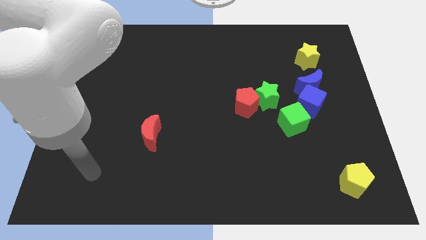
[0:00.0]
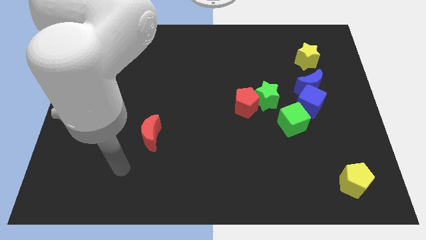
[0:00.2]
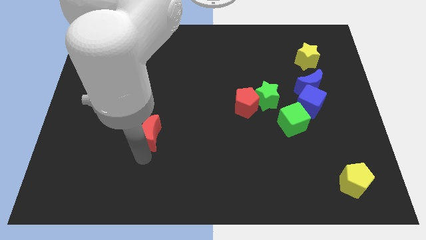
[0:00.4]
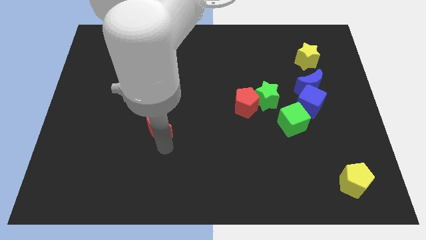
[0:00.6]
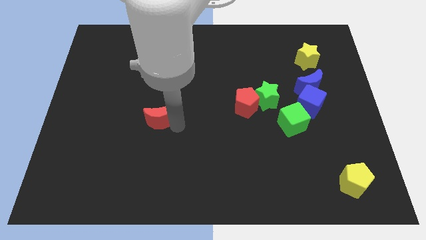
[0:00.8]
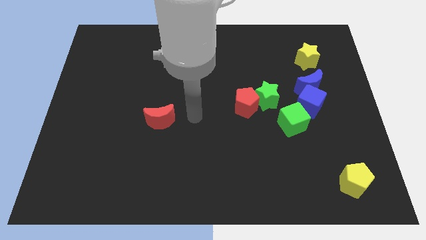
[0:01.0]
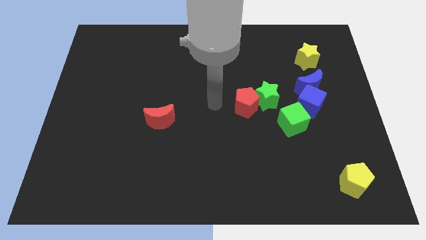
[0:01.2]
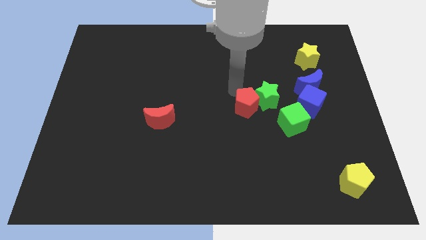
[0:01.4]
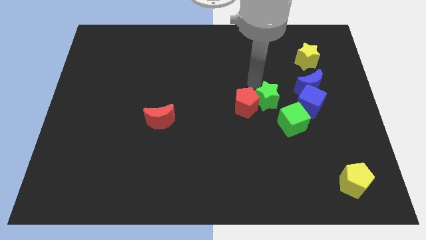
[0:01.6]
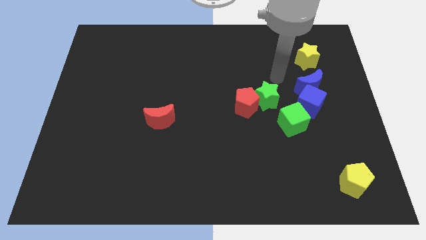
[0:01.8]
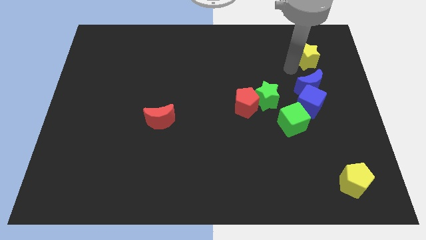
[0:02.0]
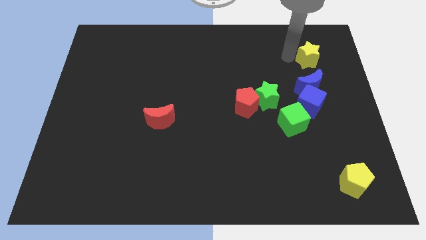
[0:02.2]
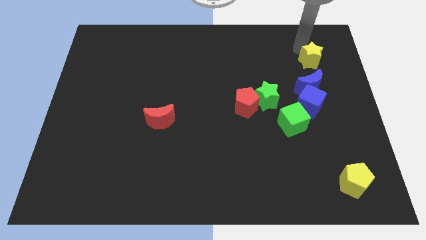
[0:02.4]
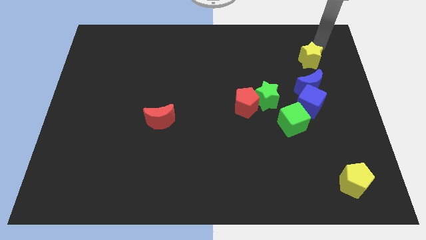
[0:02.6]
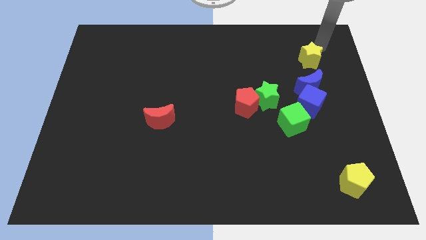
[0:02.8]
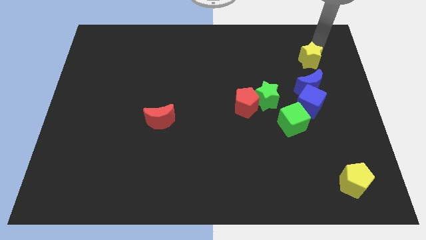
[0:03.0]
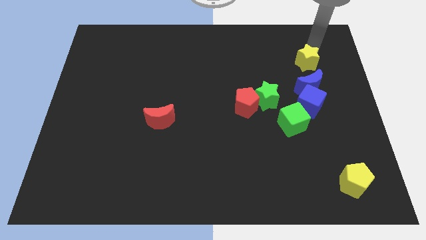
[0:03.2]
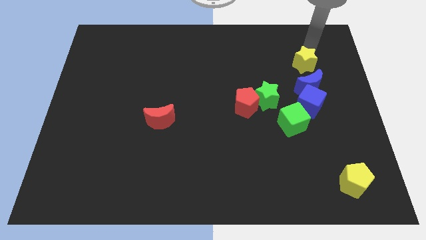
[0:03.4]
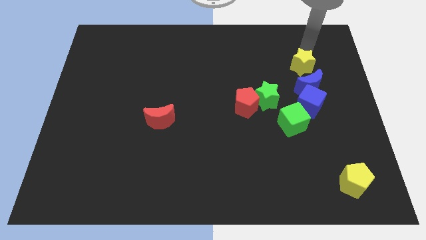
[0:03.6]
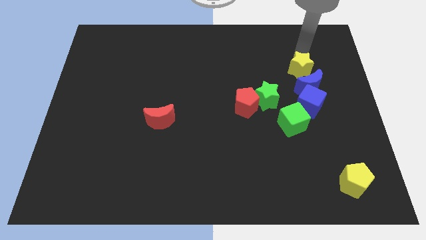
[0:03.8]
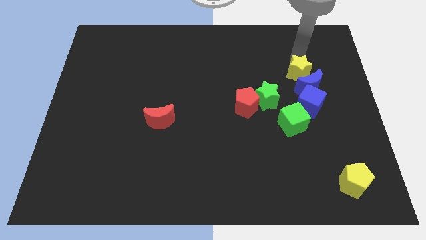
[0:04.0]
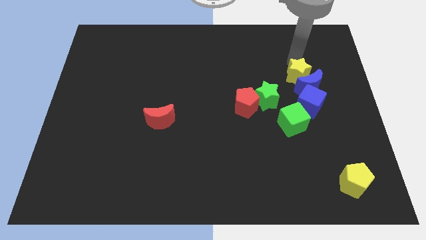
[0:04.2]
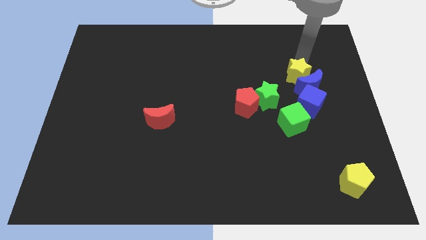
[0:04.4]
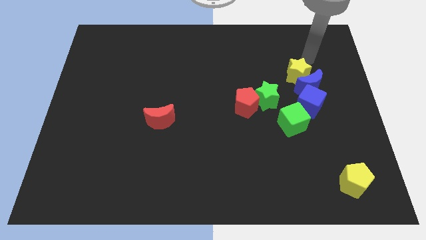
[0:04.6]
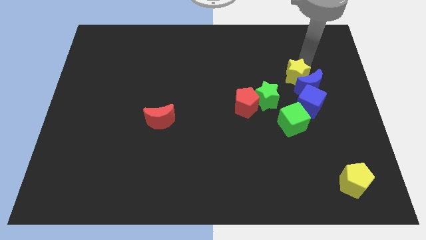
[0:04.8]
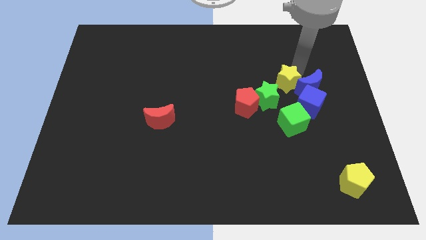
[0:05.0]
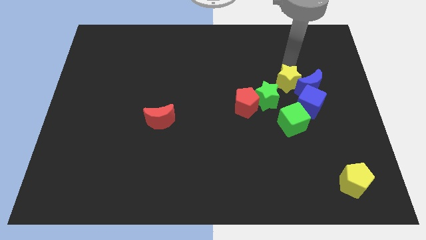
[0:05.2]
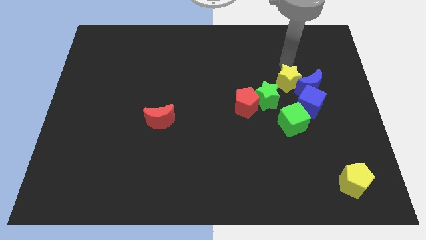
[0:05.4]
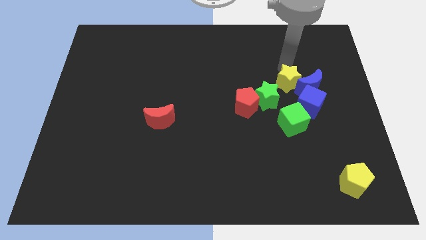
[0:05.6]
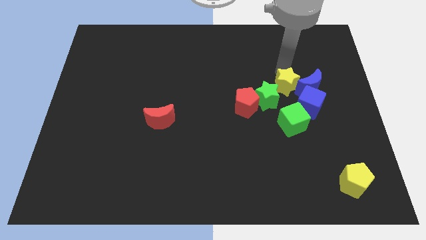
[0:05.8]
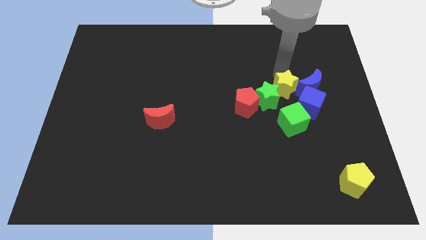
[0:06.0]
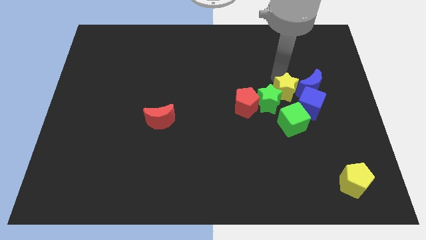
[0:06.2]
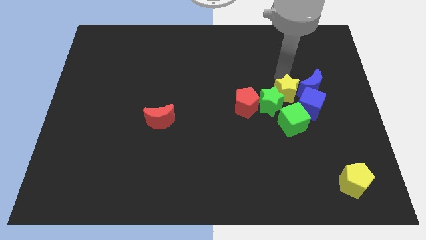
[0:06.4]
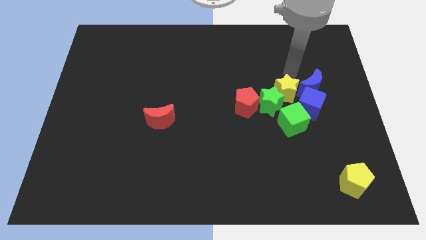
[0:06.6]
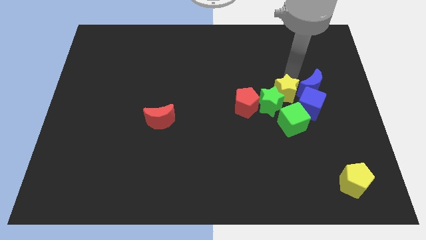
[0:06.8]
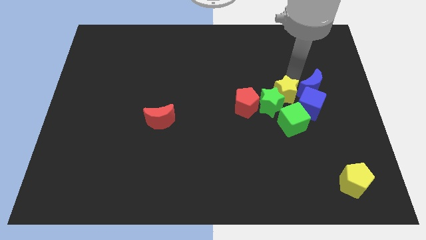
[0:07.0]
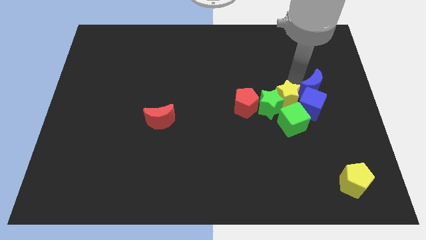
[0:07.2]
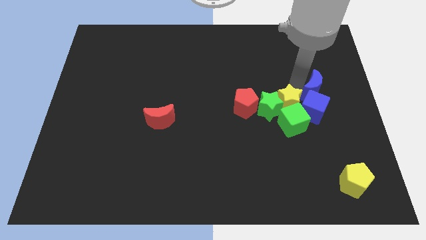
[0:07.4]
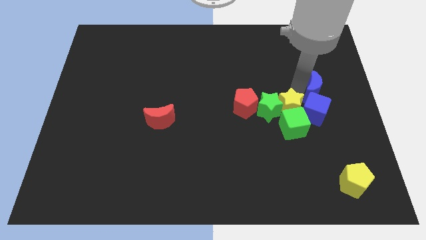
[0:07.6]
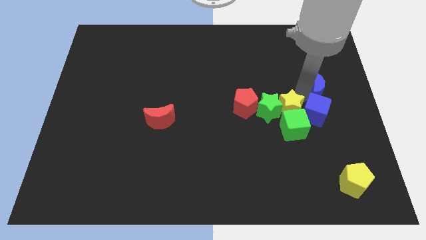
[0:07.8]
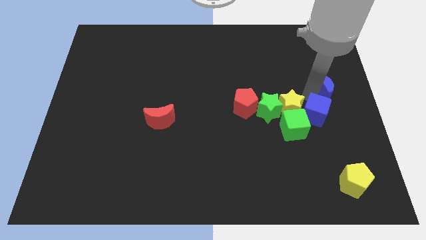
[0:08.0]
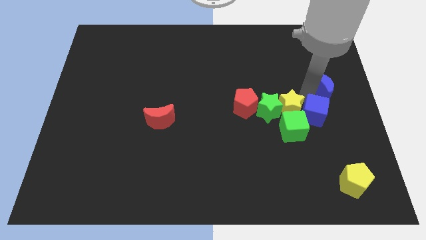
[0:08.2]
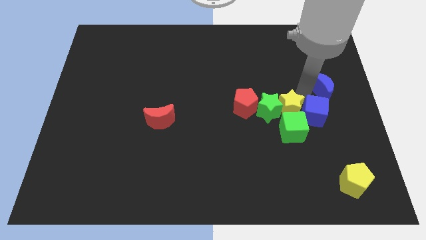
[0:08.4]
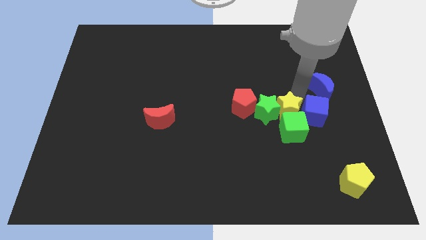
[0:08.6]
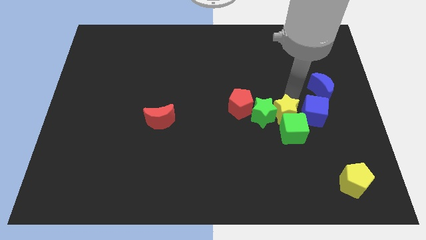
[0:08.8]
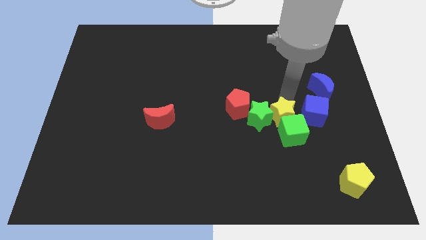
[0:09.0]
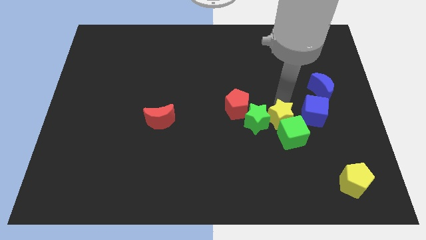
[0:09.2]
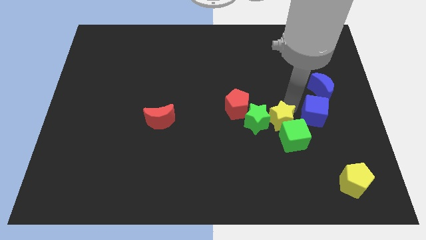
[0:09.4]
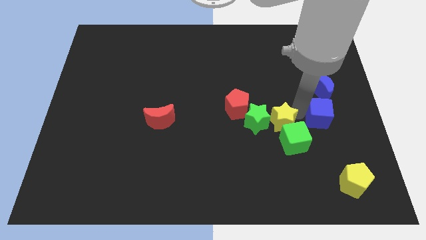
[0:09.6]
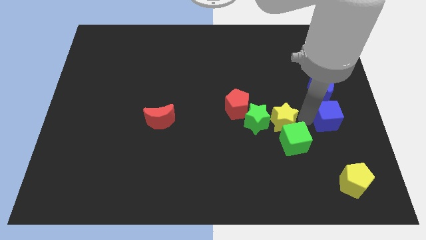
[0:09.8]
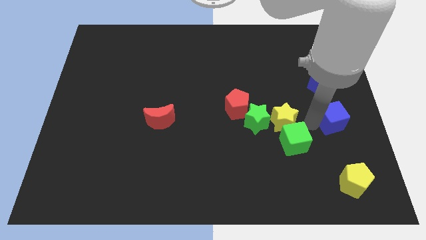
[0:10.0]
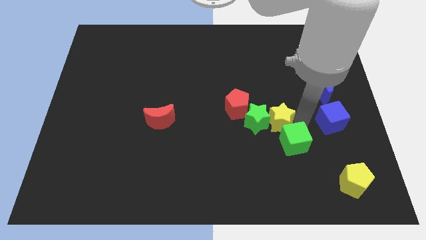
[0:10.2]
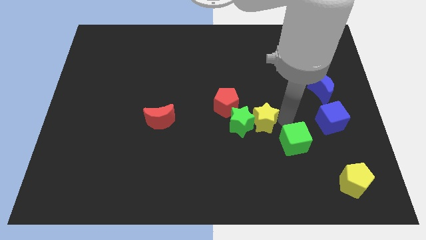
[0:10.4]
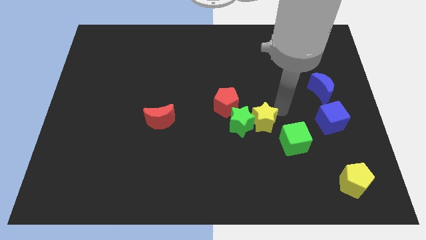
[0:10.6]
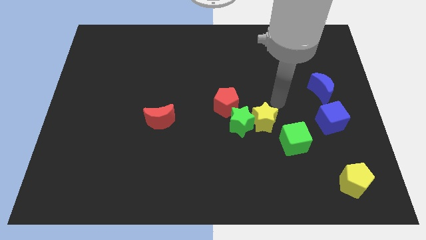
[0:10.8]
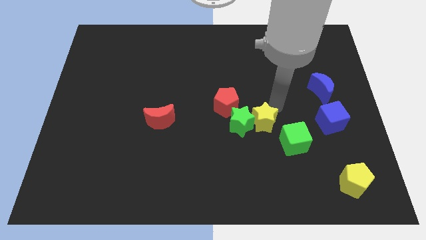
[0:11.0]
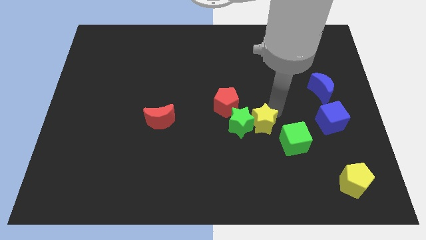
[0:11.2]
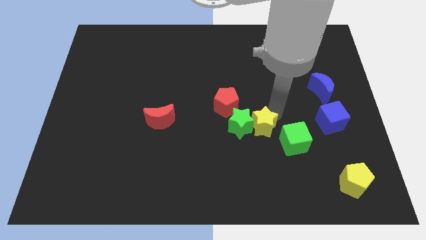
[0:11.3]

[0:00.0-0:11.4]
push the yellow star to the left side of the green cube

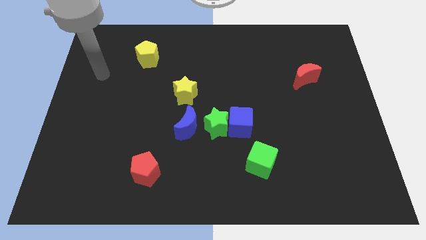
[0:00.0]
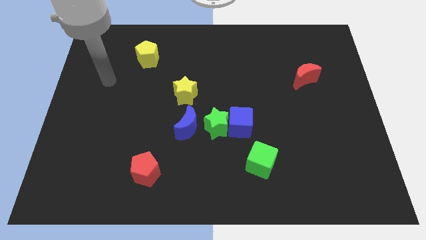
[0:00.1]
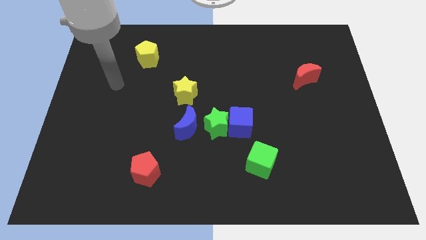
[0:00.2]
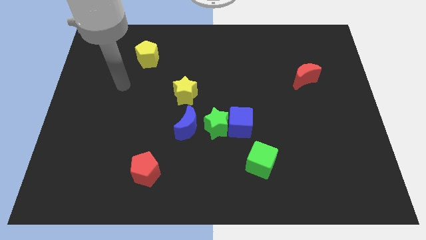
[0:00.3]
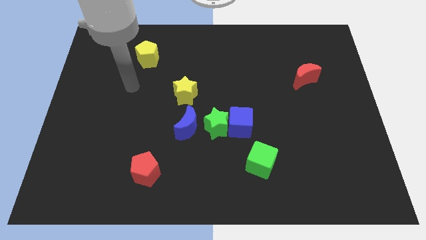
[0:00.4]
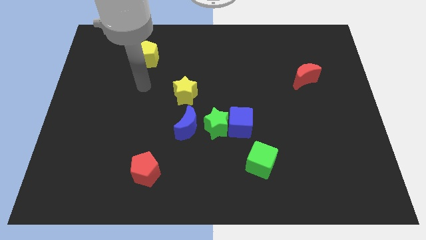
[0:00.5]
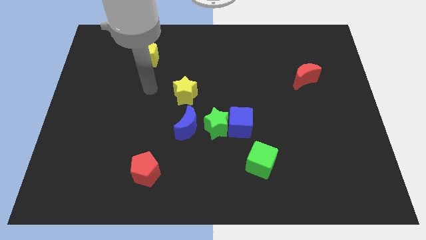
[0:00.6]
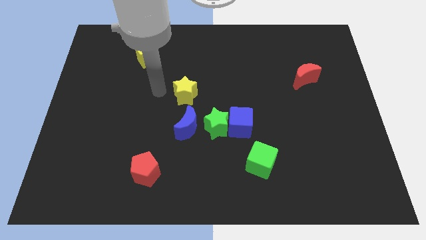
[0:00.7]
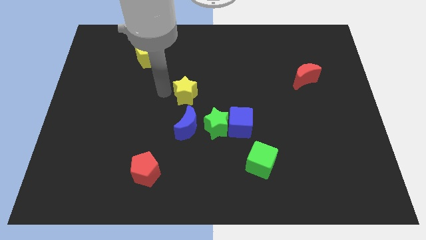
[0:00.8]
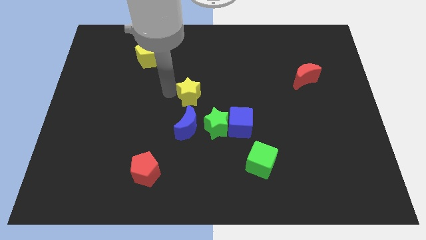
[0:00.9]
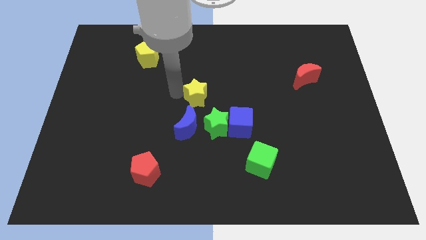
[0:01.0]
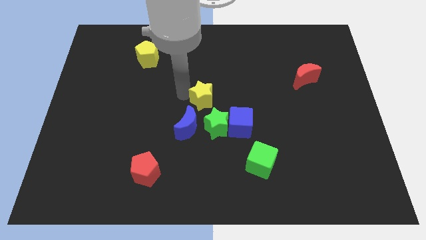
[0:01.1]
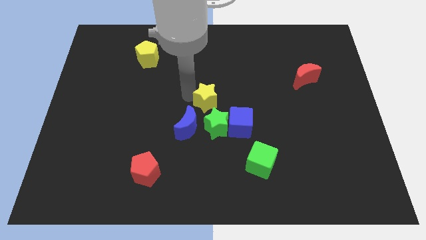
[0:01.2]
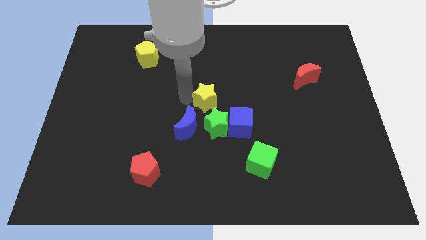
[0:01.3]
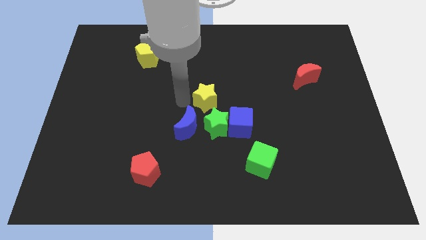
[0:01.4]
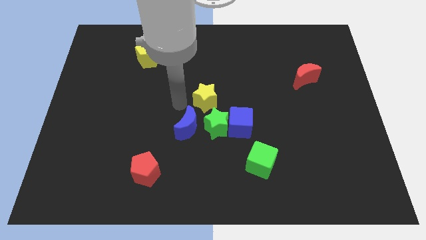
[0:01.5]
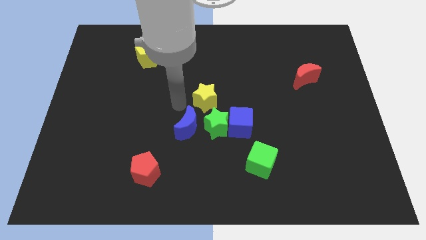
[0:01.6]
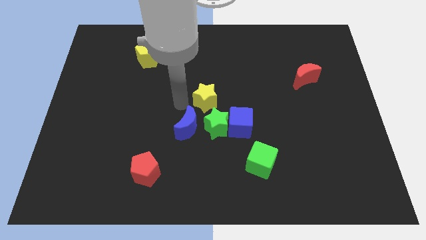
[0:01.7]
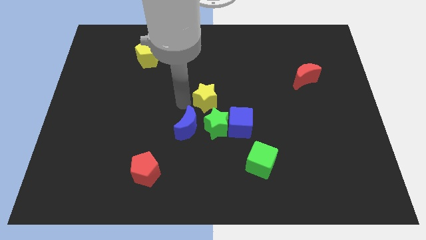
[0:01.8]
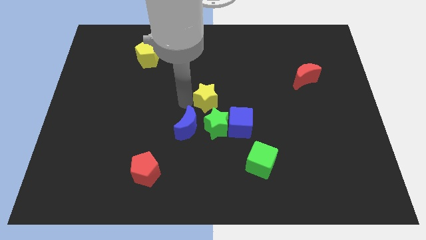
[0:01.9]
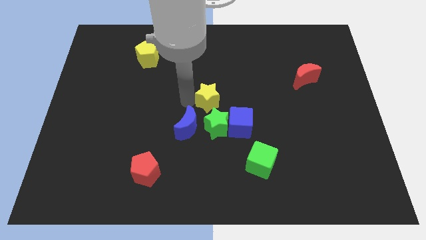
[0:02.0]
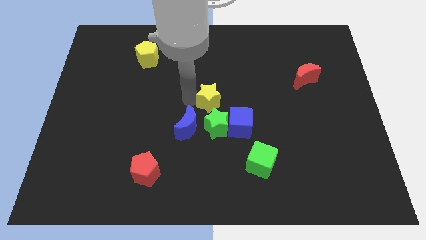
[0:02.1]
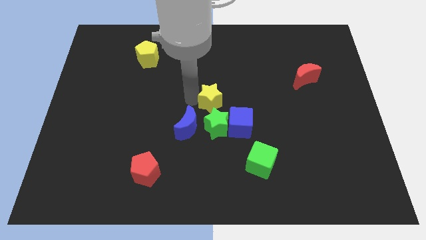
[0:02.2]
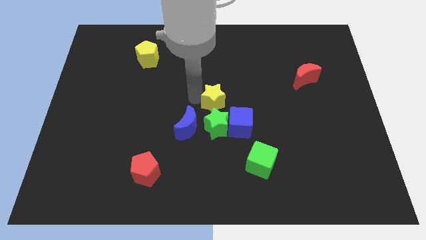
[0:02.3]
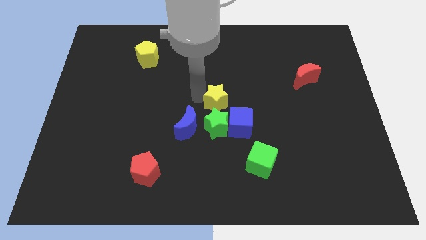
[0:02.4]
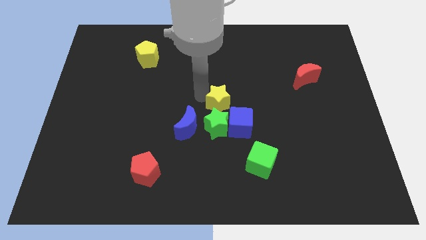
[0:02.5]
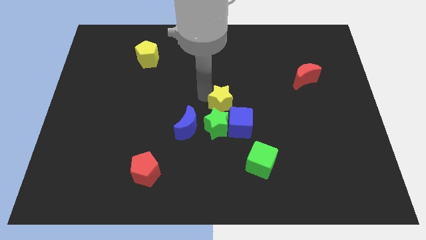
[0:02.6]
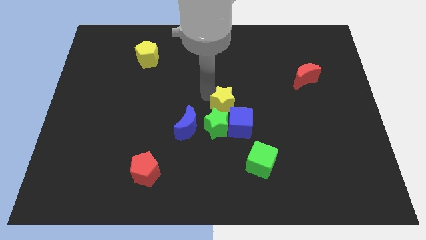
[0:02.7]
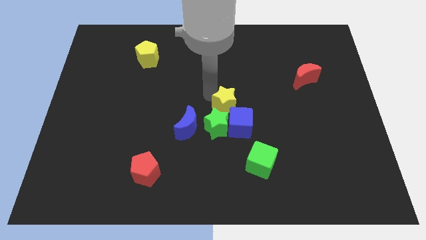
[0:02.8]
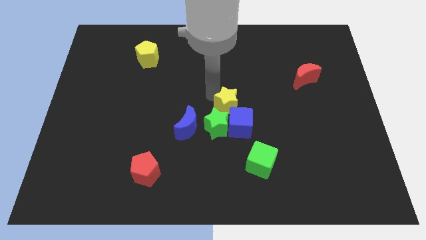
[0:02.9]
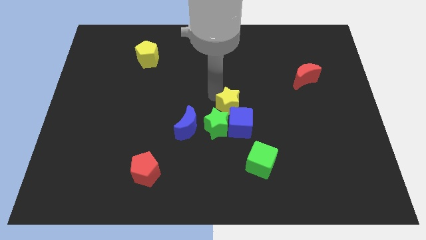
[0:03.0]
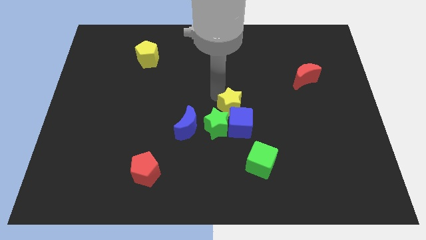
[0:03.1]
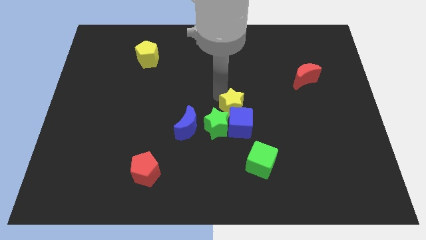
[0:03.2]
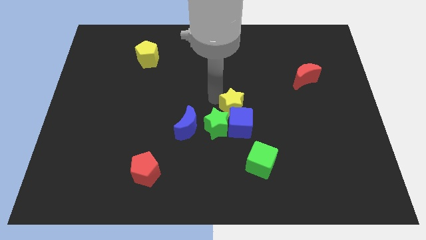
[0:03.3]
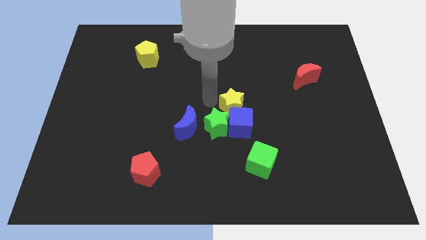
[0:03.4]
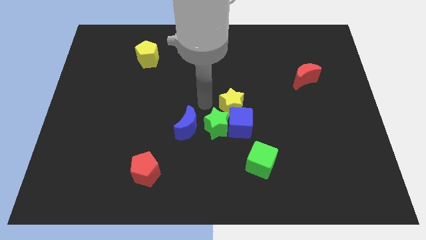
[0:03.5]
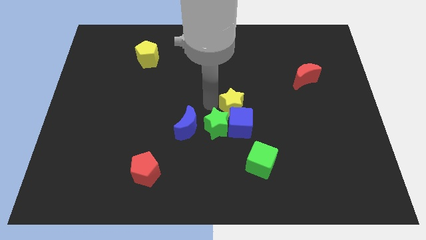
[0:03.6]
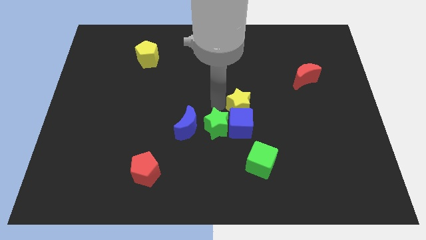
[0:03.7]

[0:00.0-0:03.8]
move the yellow star diagonally up and to the right of the blue cube
